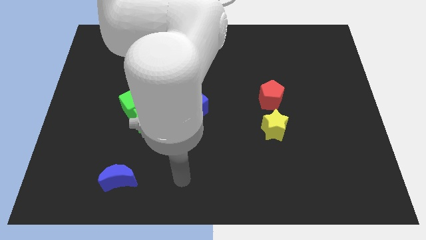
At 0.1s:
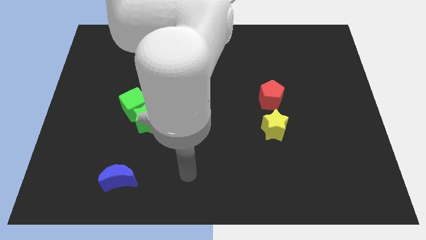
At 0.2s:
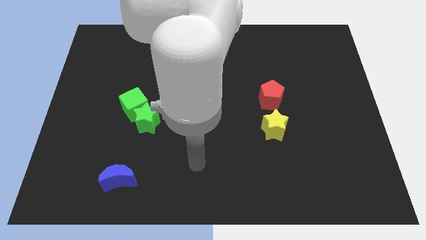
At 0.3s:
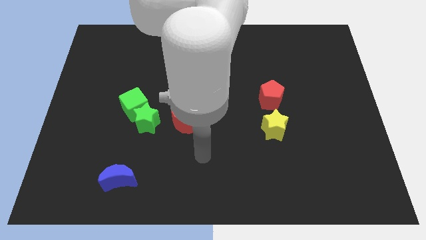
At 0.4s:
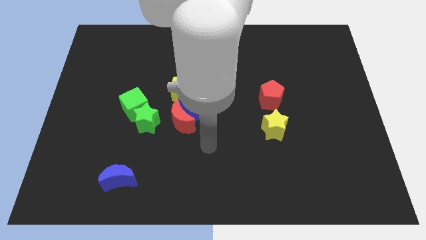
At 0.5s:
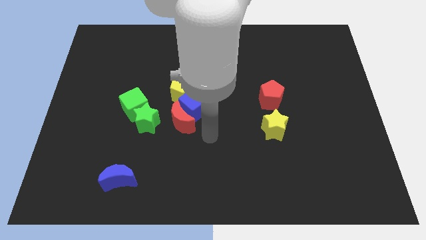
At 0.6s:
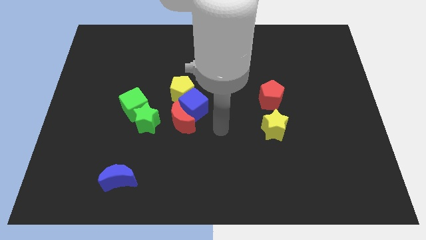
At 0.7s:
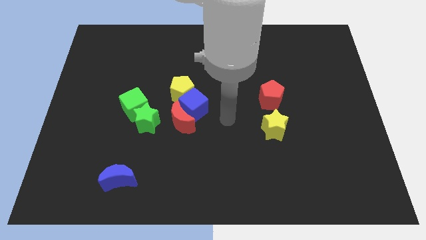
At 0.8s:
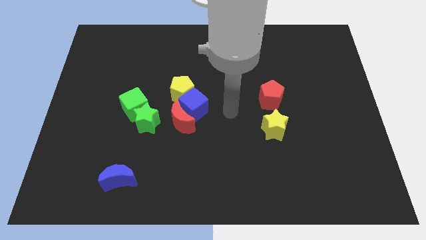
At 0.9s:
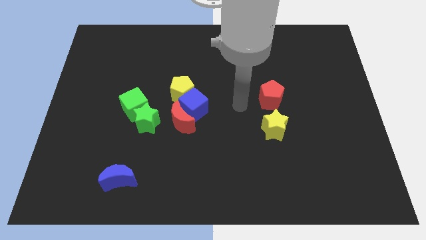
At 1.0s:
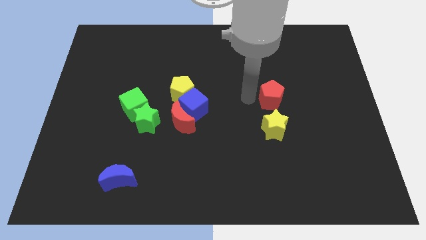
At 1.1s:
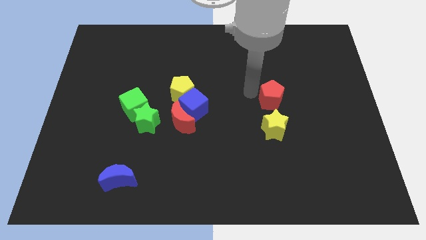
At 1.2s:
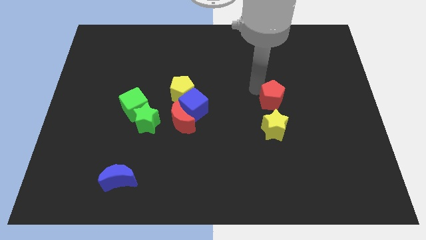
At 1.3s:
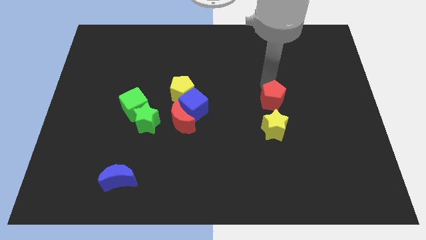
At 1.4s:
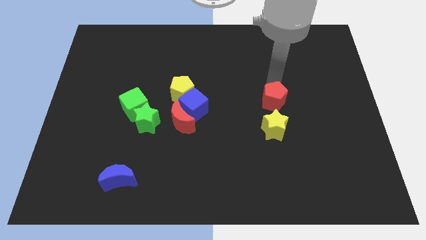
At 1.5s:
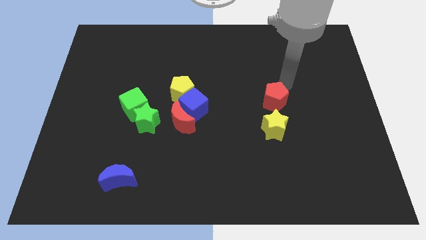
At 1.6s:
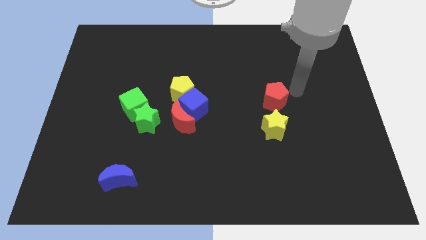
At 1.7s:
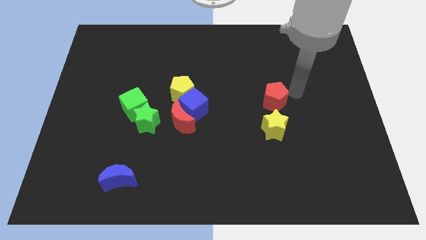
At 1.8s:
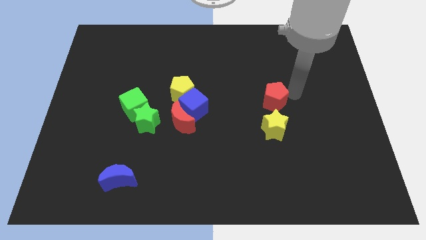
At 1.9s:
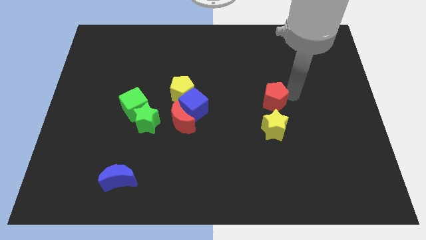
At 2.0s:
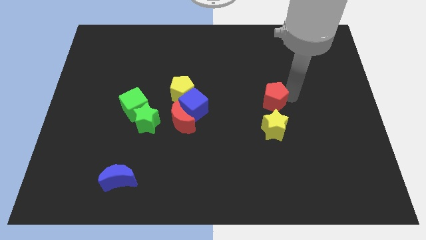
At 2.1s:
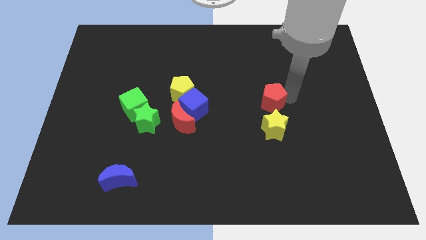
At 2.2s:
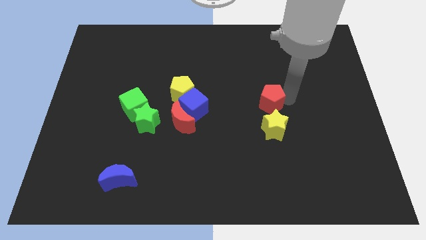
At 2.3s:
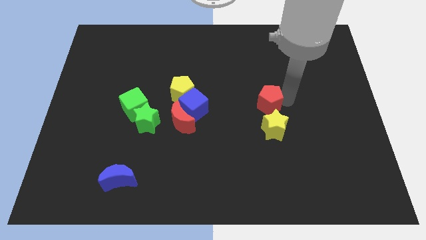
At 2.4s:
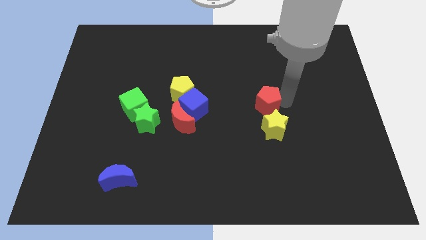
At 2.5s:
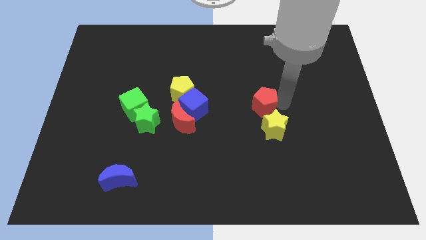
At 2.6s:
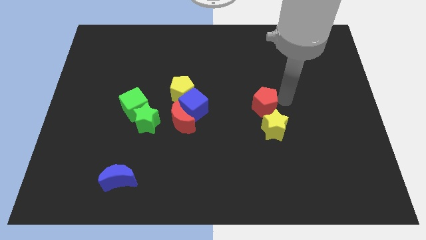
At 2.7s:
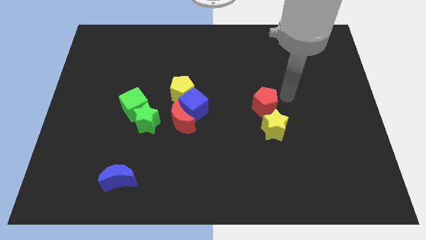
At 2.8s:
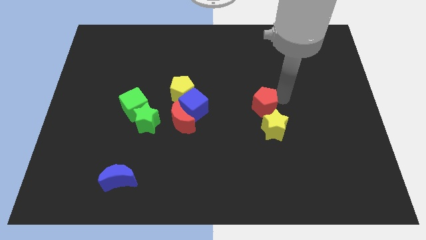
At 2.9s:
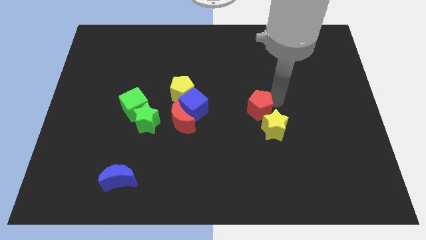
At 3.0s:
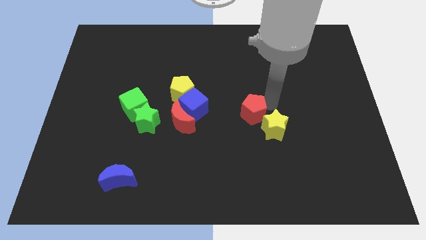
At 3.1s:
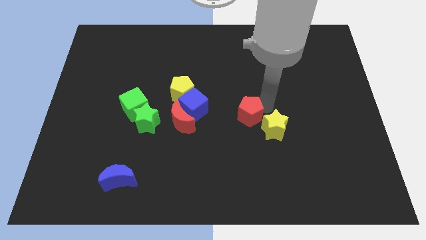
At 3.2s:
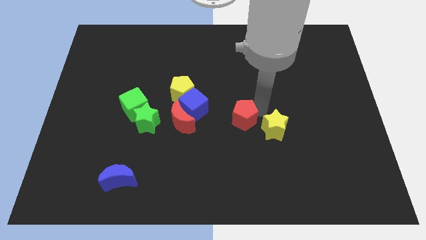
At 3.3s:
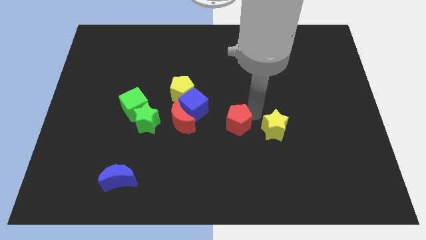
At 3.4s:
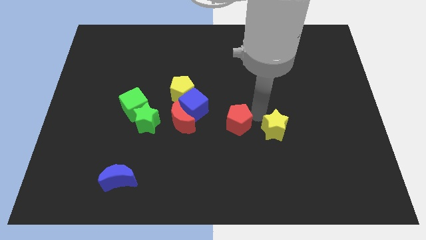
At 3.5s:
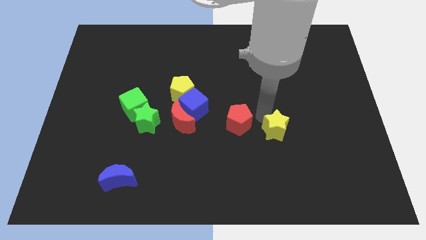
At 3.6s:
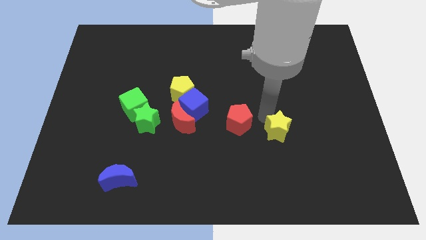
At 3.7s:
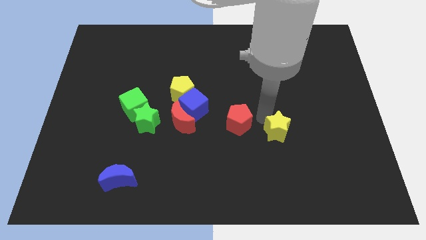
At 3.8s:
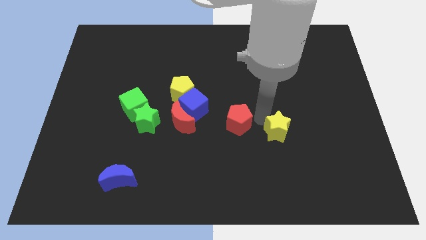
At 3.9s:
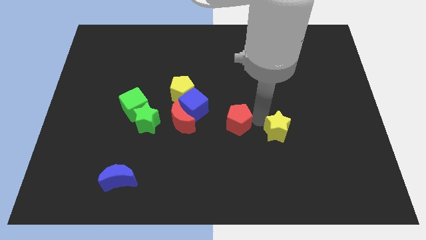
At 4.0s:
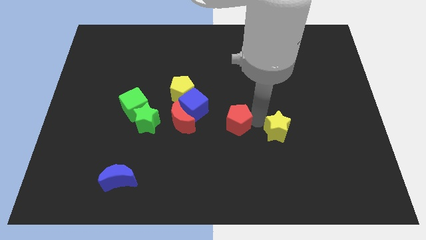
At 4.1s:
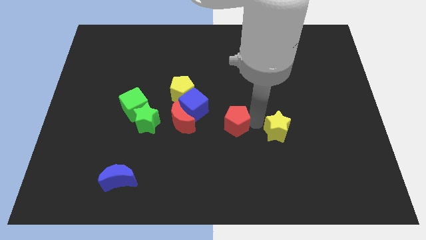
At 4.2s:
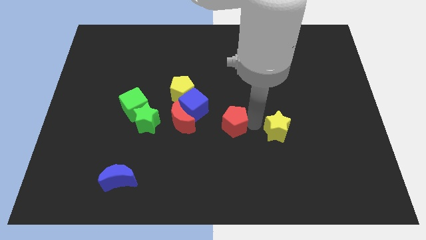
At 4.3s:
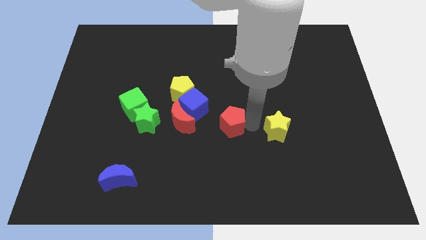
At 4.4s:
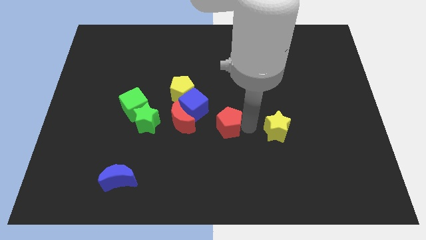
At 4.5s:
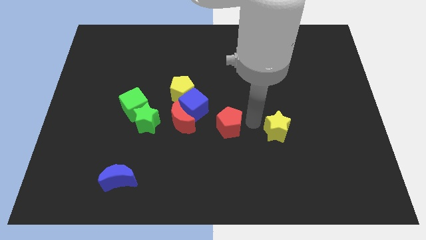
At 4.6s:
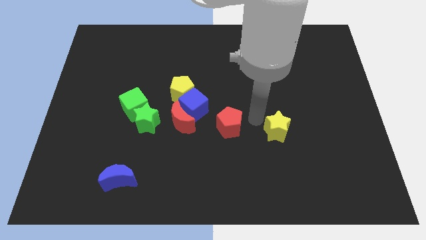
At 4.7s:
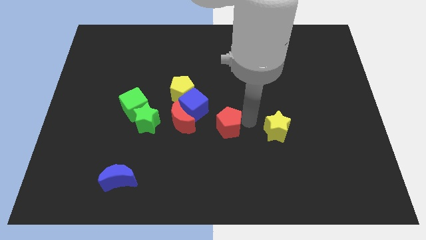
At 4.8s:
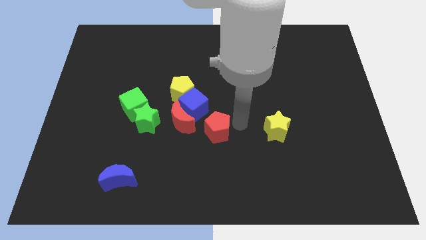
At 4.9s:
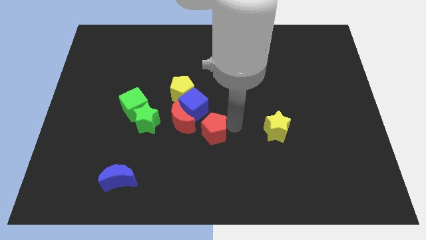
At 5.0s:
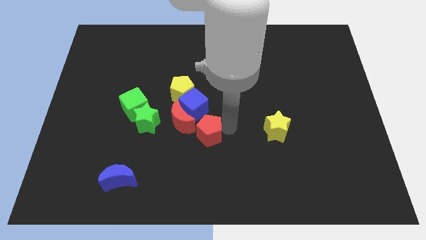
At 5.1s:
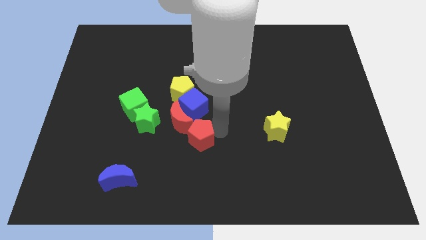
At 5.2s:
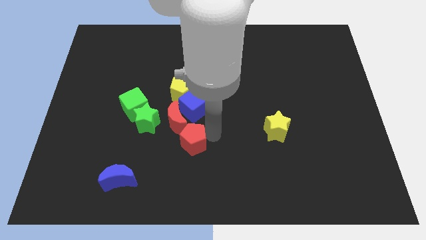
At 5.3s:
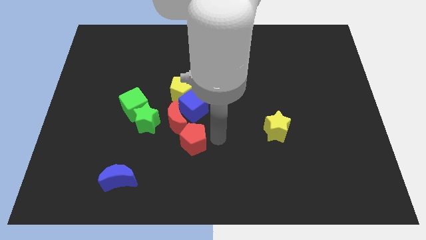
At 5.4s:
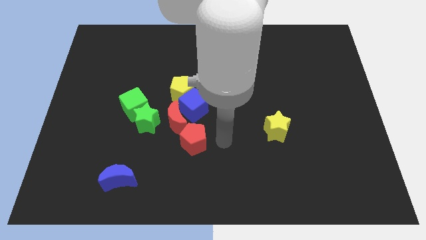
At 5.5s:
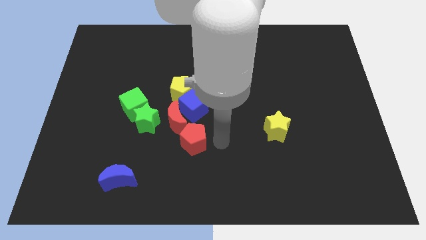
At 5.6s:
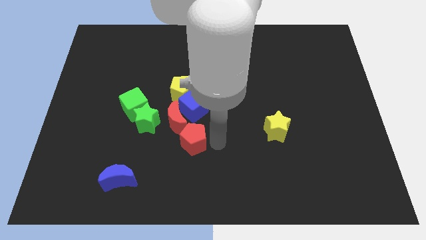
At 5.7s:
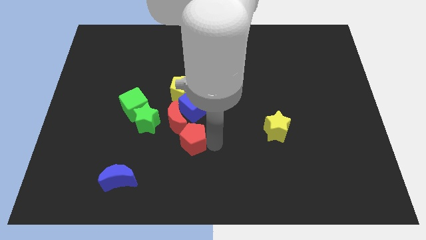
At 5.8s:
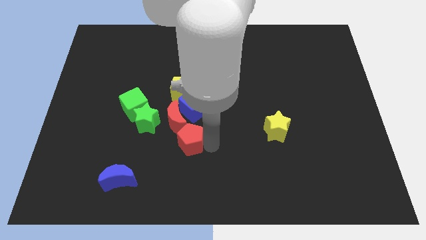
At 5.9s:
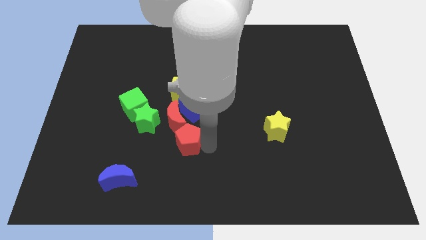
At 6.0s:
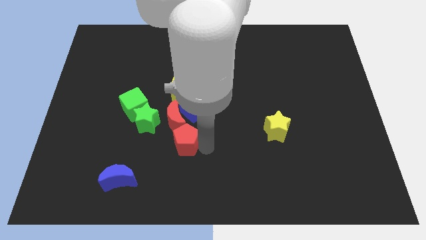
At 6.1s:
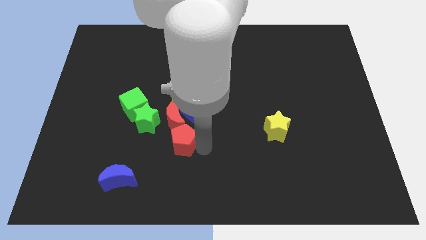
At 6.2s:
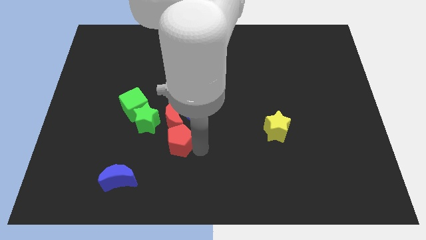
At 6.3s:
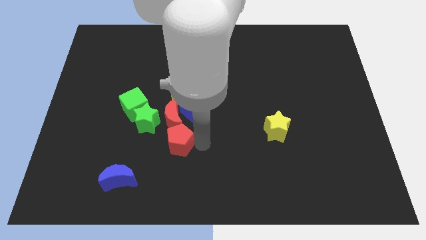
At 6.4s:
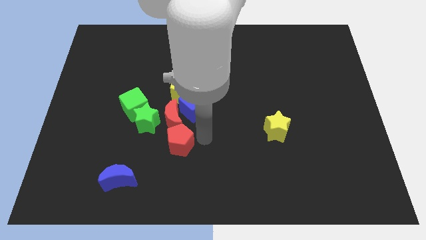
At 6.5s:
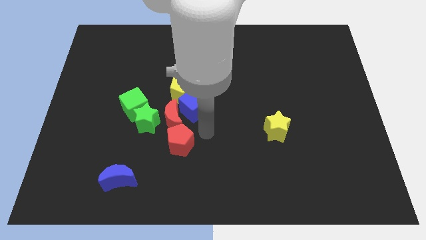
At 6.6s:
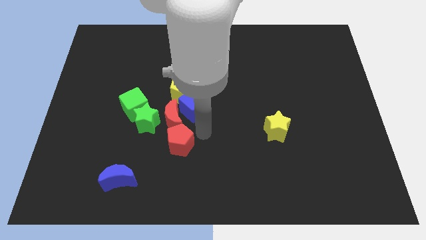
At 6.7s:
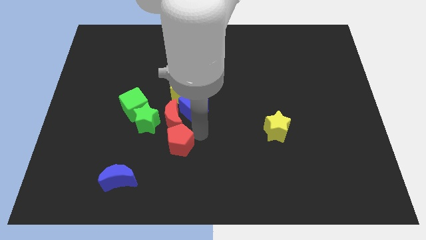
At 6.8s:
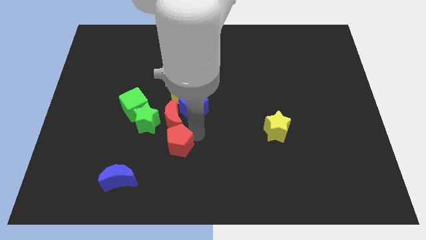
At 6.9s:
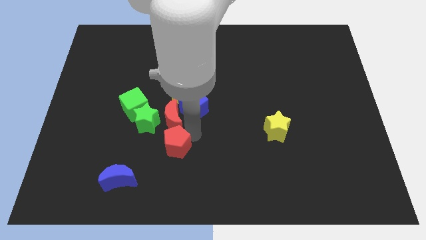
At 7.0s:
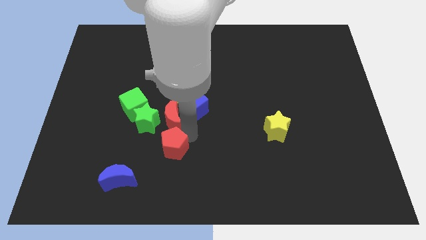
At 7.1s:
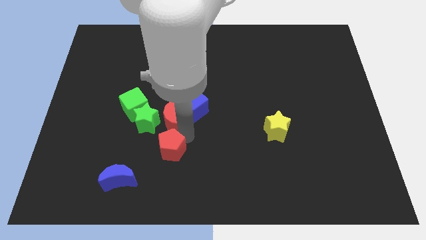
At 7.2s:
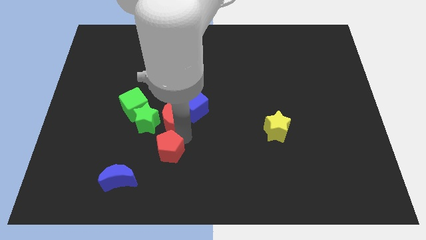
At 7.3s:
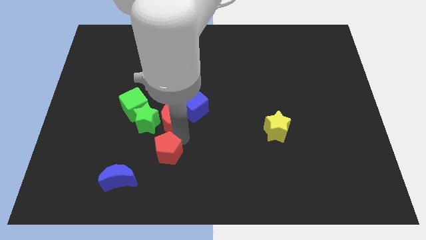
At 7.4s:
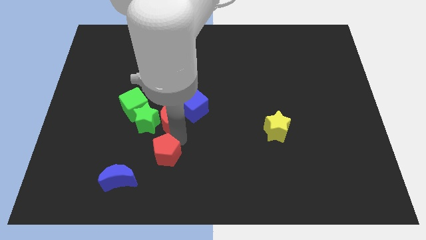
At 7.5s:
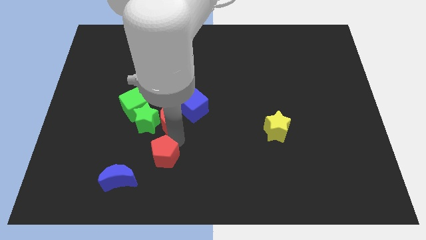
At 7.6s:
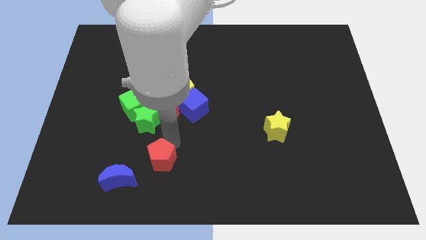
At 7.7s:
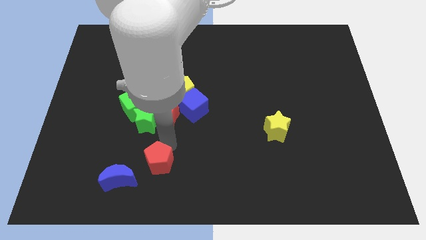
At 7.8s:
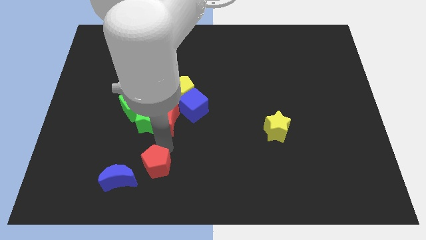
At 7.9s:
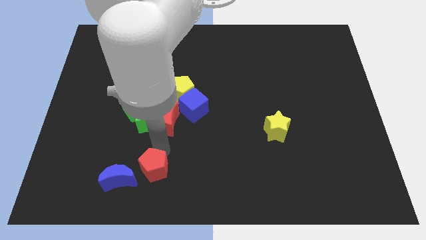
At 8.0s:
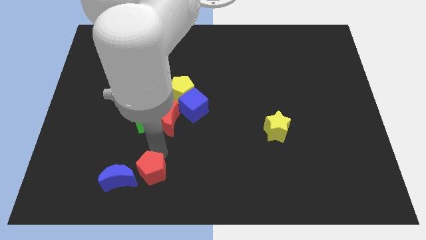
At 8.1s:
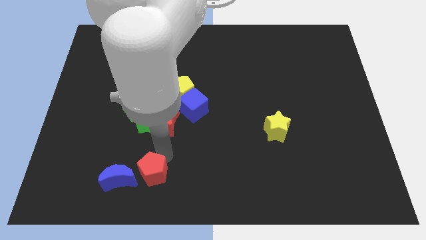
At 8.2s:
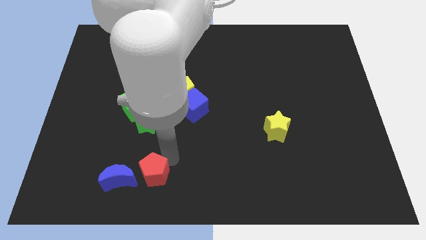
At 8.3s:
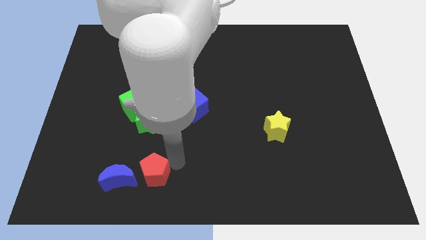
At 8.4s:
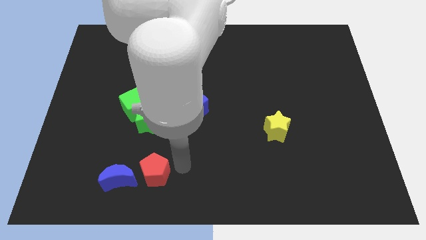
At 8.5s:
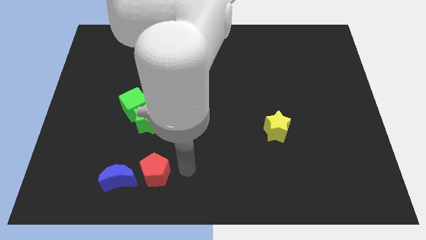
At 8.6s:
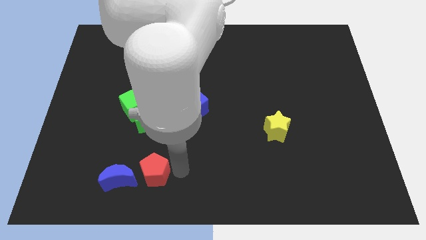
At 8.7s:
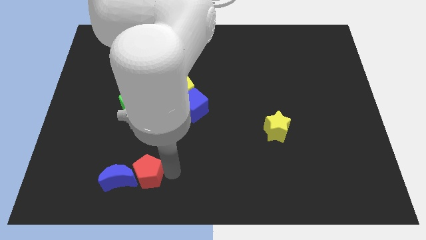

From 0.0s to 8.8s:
move the red pentagon towards the blue moon
